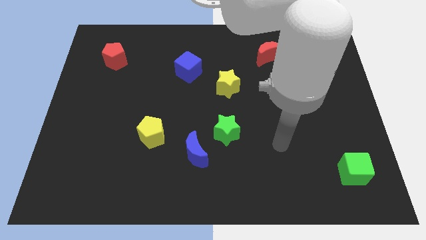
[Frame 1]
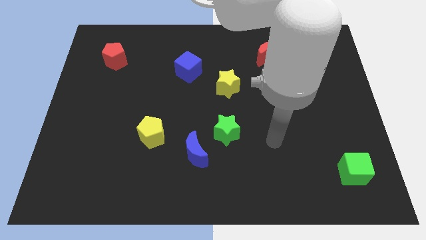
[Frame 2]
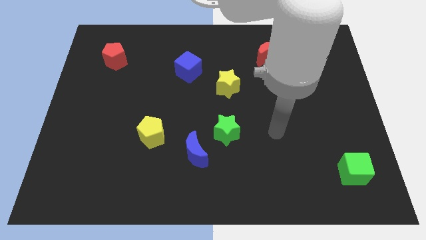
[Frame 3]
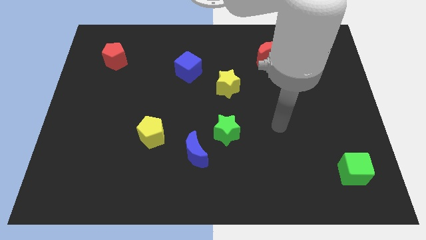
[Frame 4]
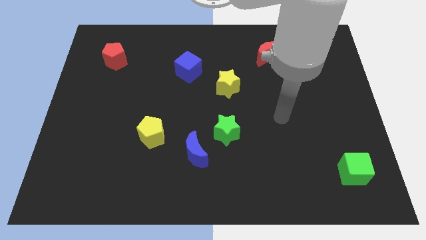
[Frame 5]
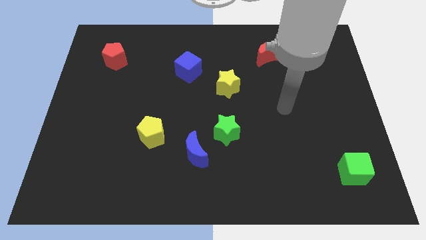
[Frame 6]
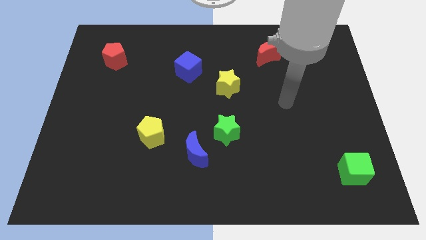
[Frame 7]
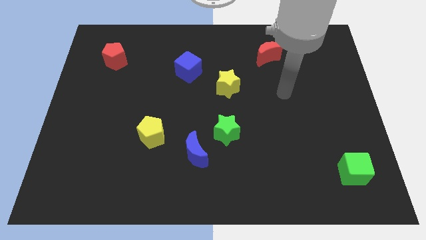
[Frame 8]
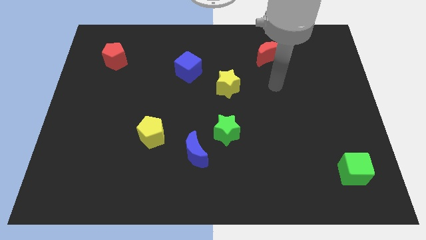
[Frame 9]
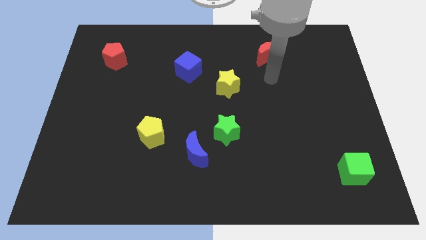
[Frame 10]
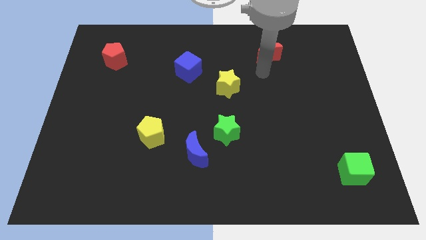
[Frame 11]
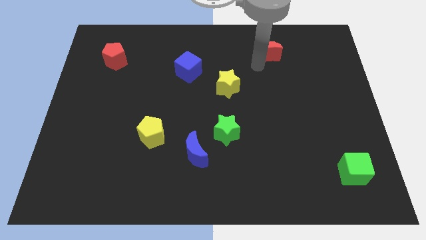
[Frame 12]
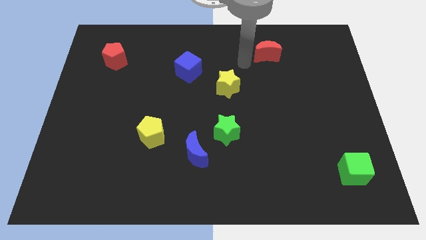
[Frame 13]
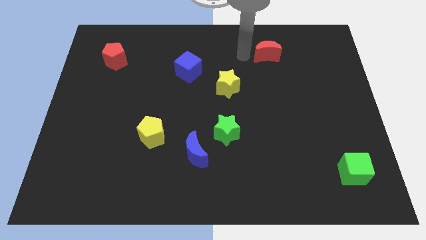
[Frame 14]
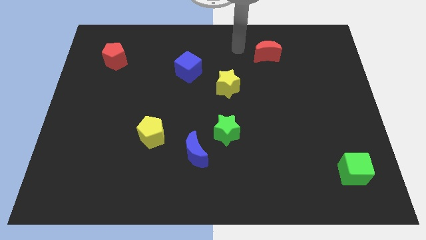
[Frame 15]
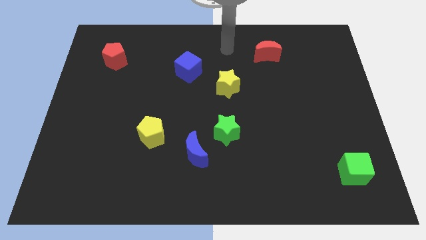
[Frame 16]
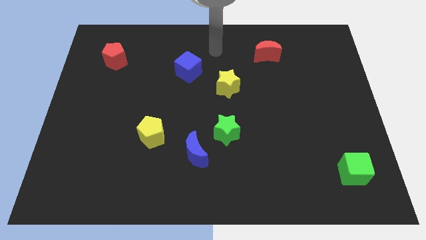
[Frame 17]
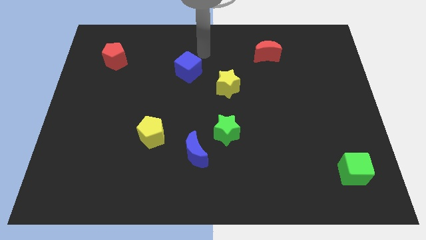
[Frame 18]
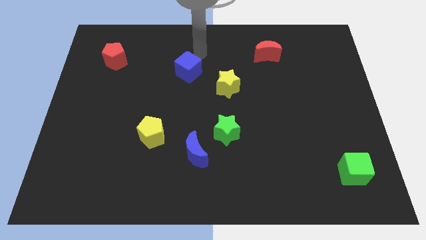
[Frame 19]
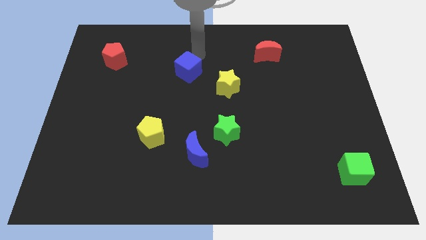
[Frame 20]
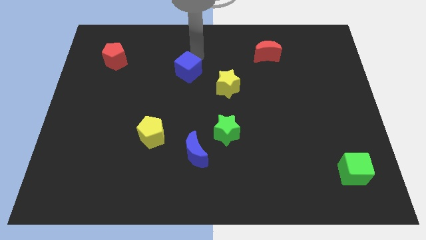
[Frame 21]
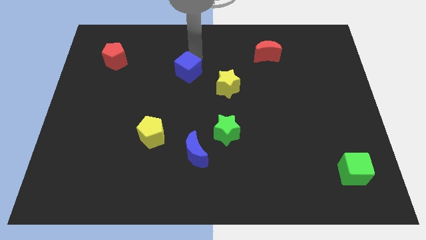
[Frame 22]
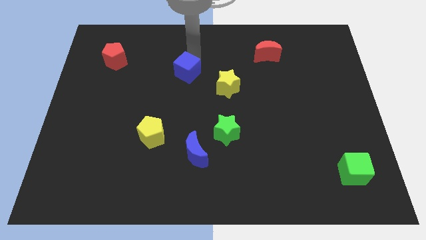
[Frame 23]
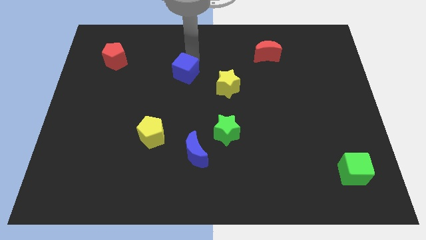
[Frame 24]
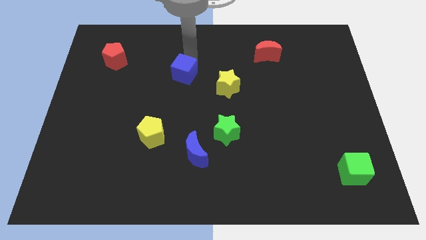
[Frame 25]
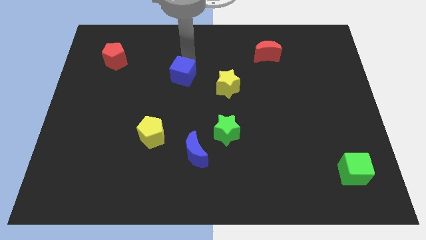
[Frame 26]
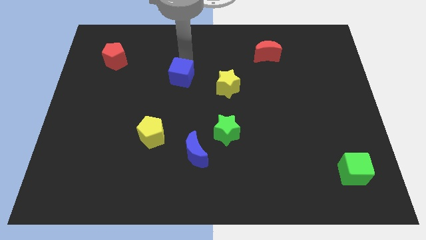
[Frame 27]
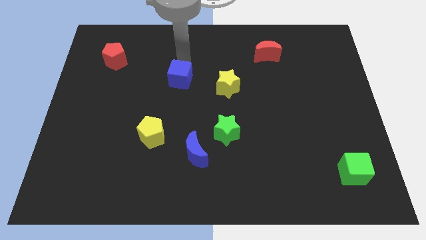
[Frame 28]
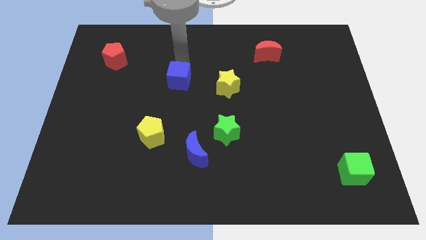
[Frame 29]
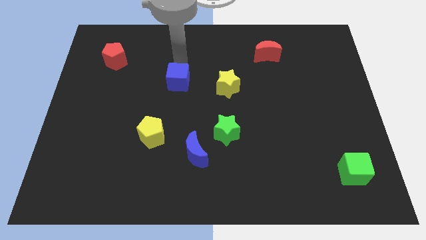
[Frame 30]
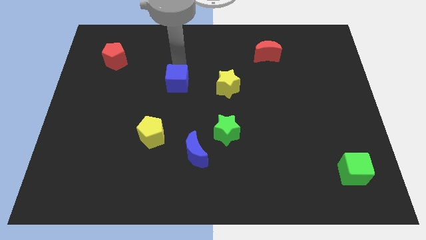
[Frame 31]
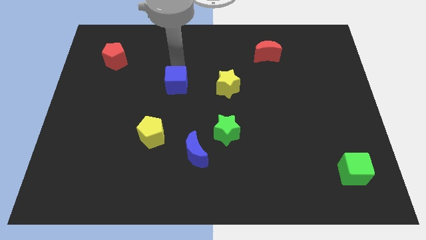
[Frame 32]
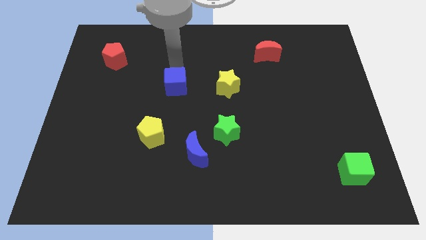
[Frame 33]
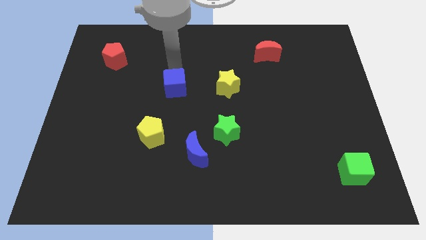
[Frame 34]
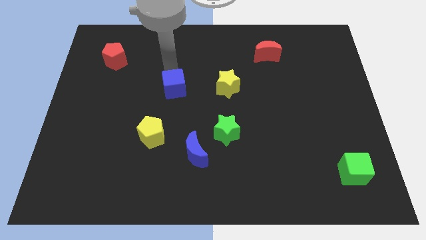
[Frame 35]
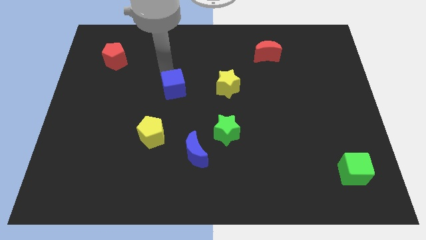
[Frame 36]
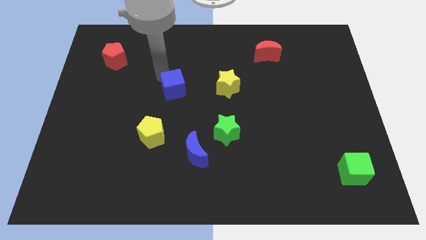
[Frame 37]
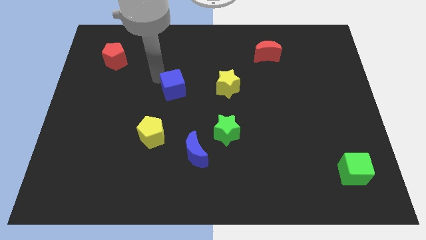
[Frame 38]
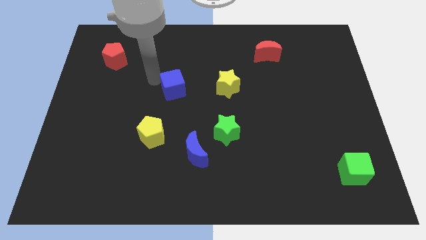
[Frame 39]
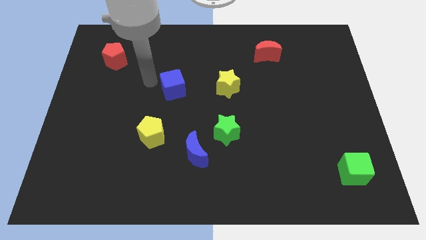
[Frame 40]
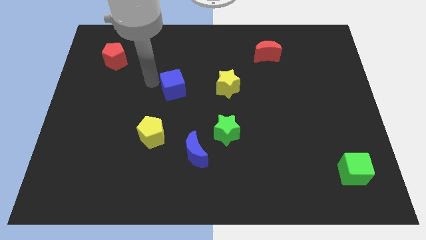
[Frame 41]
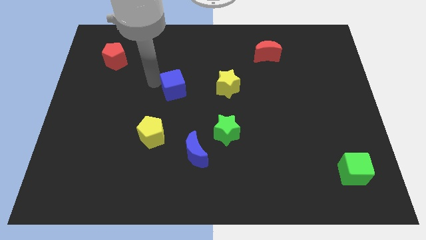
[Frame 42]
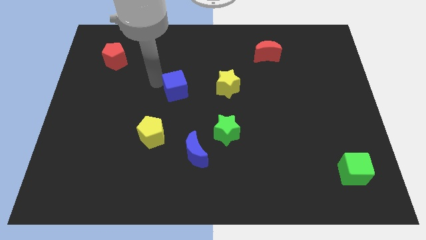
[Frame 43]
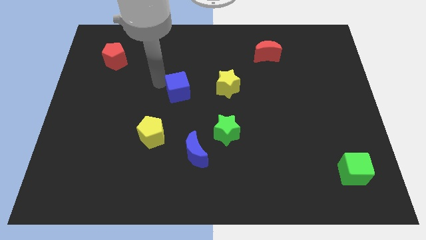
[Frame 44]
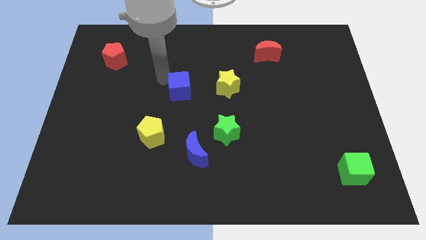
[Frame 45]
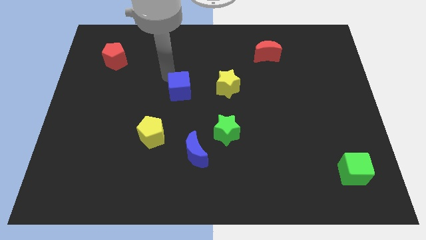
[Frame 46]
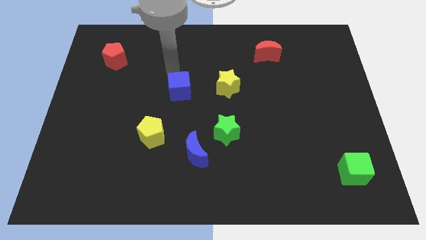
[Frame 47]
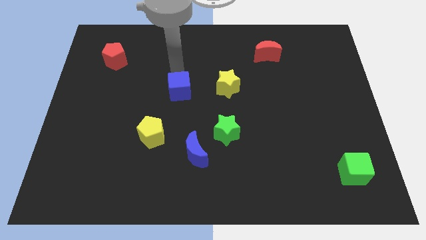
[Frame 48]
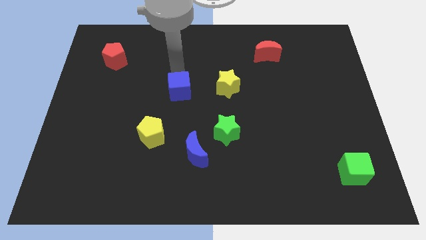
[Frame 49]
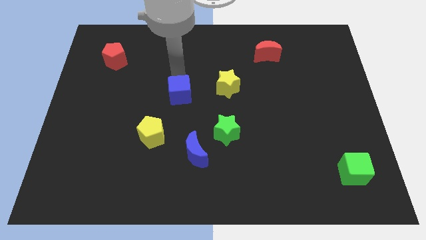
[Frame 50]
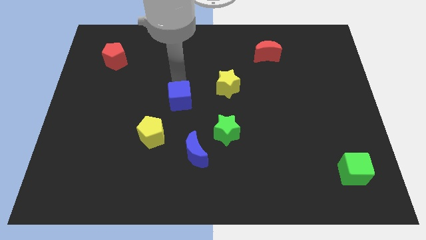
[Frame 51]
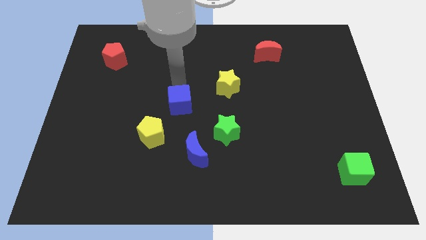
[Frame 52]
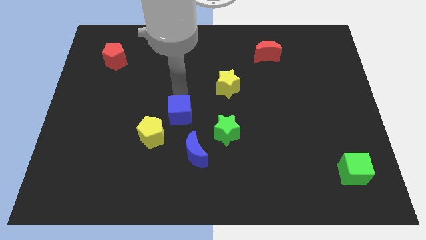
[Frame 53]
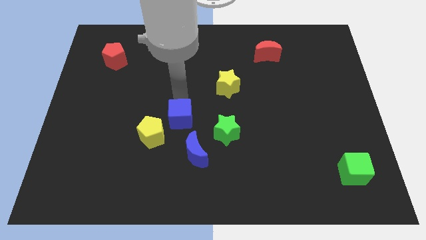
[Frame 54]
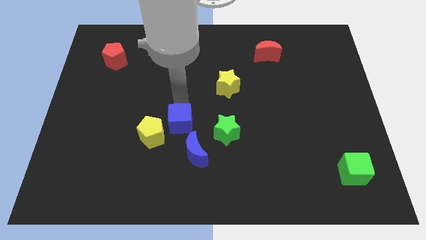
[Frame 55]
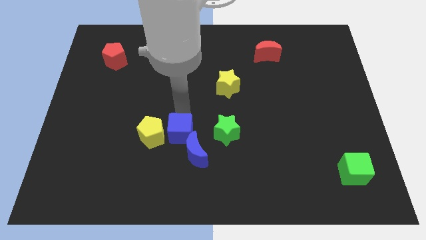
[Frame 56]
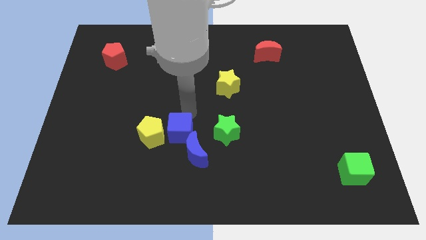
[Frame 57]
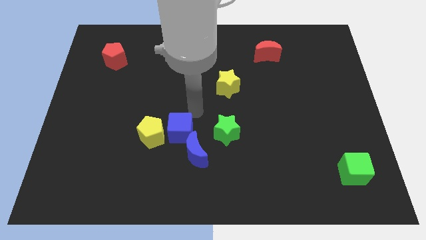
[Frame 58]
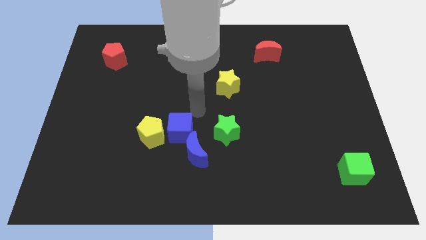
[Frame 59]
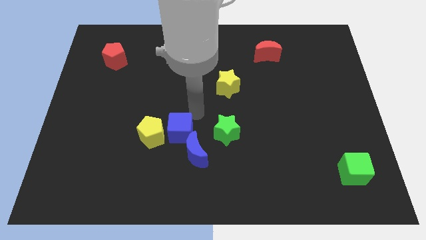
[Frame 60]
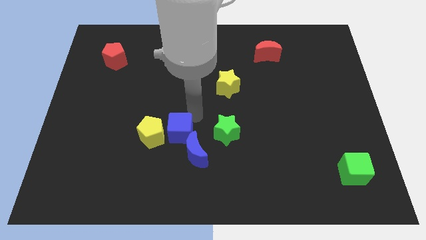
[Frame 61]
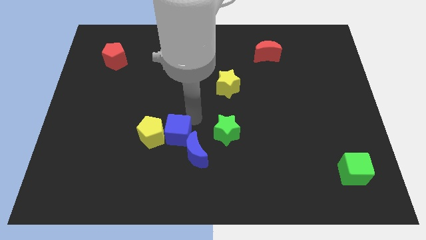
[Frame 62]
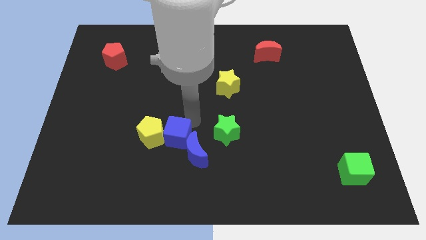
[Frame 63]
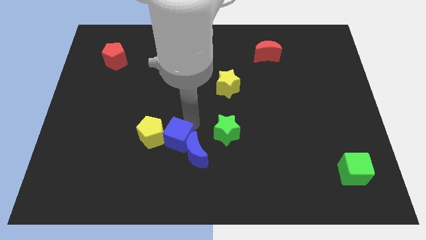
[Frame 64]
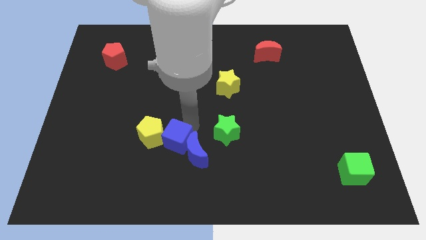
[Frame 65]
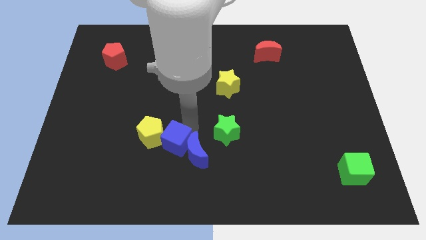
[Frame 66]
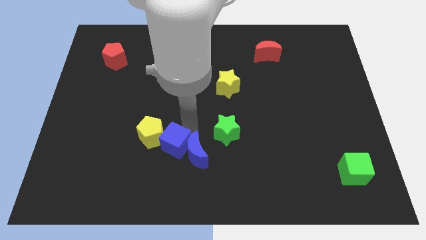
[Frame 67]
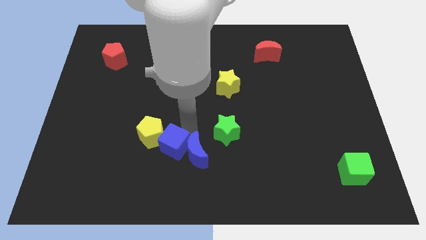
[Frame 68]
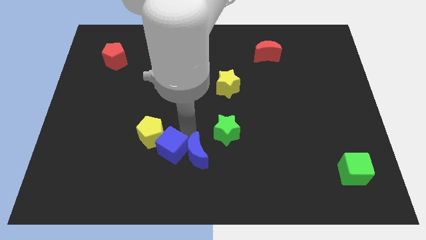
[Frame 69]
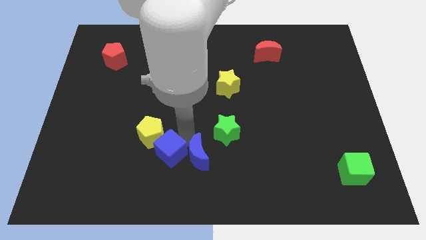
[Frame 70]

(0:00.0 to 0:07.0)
push the blue cube below the yellow pentagon
